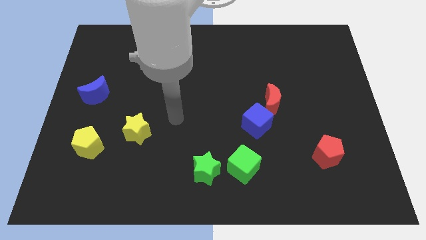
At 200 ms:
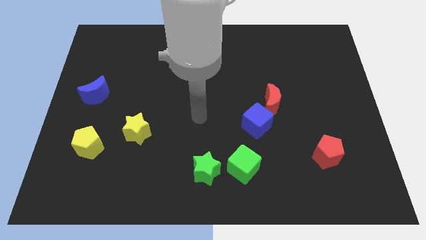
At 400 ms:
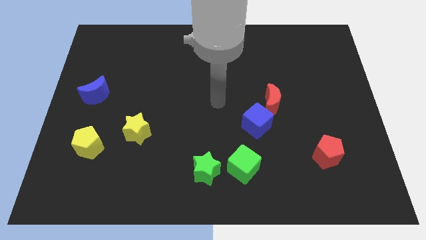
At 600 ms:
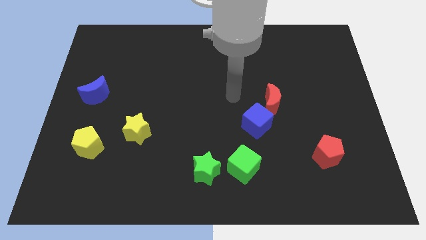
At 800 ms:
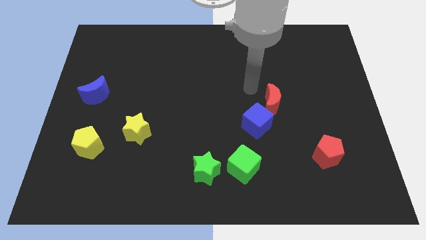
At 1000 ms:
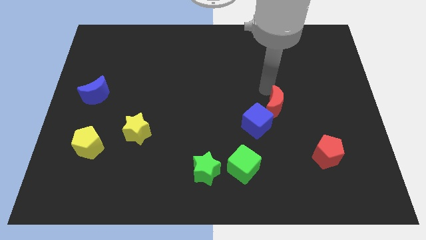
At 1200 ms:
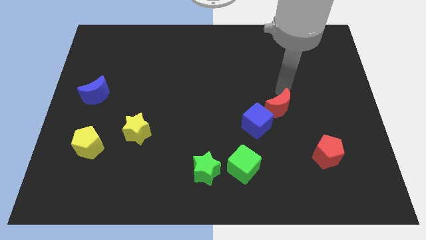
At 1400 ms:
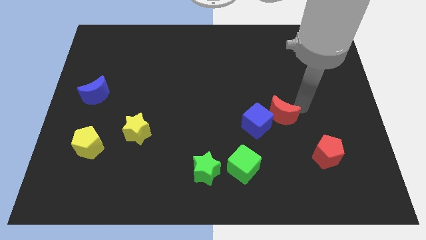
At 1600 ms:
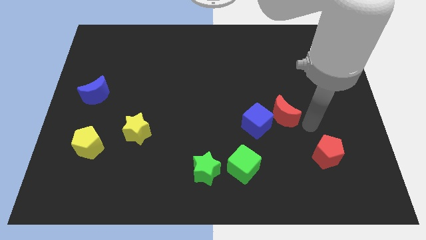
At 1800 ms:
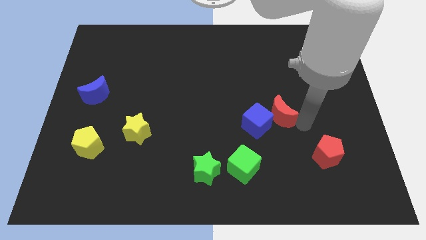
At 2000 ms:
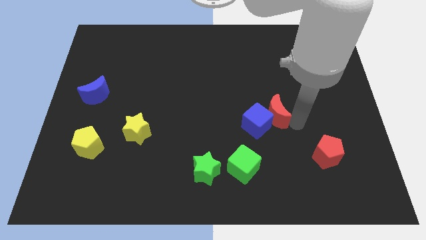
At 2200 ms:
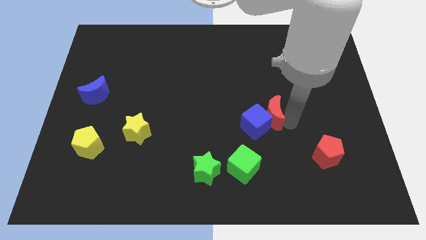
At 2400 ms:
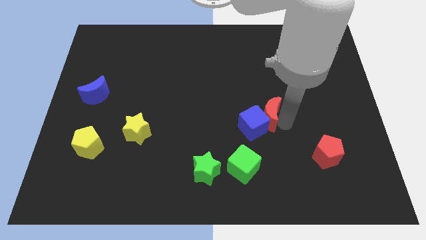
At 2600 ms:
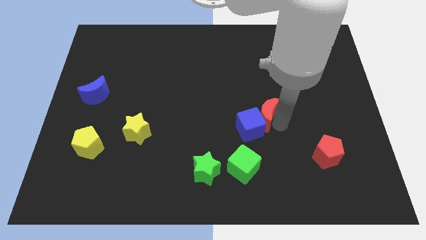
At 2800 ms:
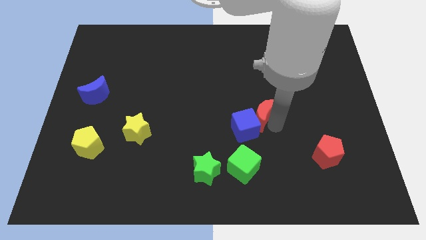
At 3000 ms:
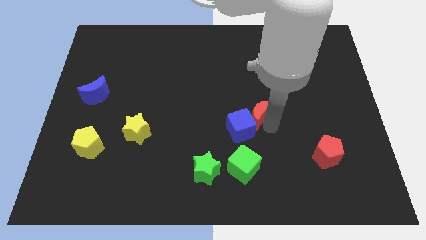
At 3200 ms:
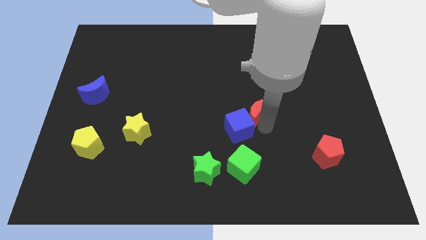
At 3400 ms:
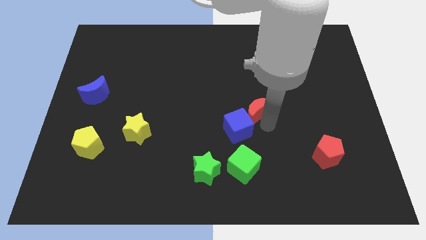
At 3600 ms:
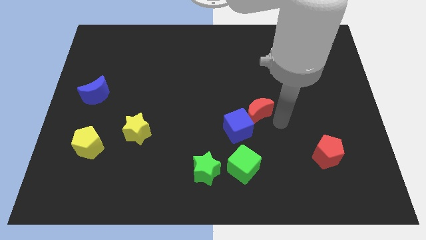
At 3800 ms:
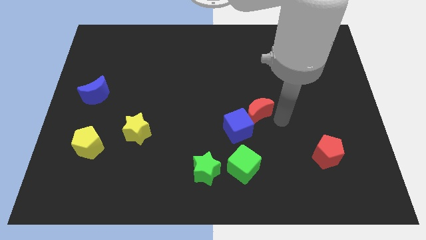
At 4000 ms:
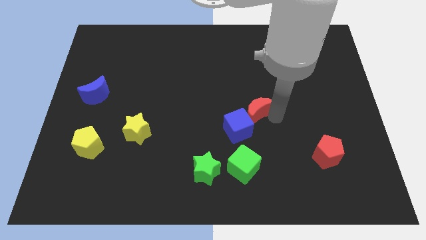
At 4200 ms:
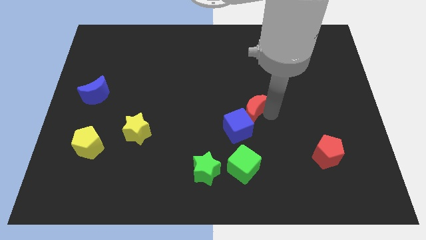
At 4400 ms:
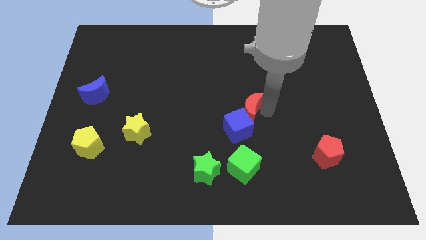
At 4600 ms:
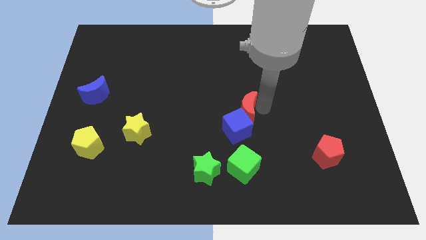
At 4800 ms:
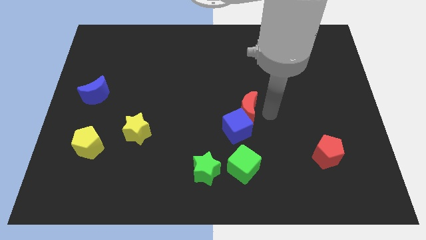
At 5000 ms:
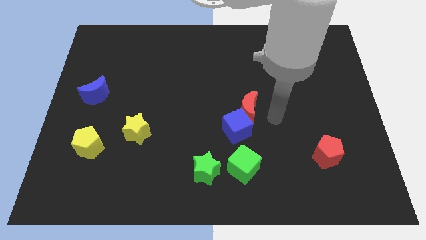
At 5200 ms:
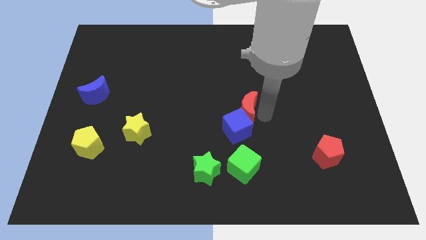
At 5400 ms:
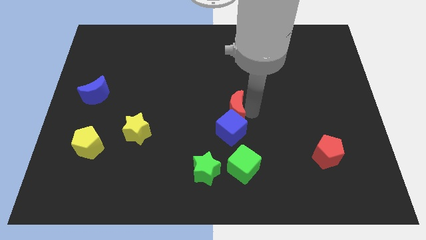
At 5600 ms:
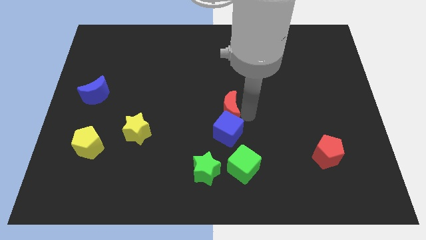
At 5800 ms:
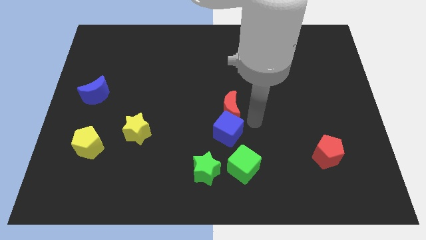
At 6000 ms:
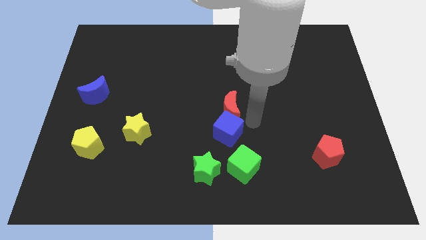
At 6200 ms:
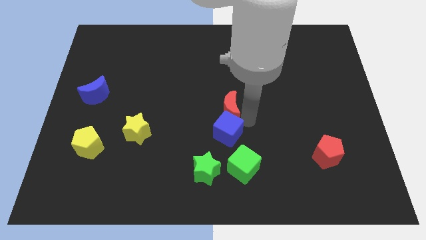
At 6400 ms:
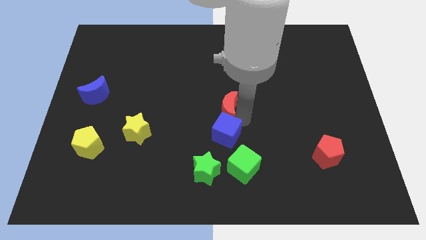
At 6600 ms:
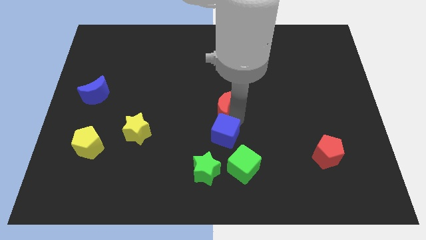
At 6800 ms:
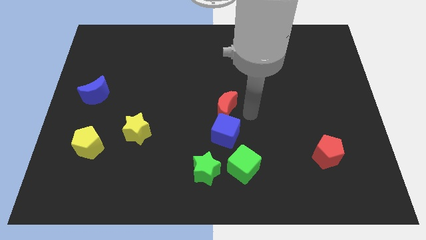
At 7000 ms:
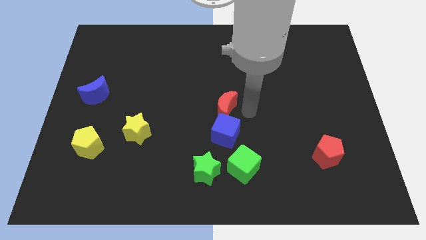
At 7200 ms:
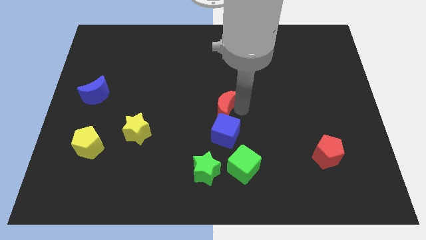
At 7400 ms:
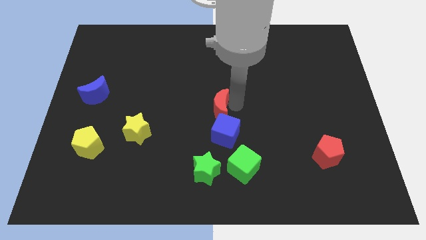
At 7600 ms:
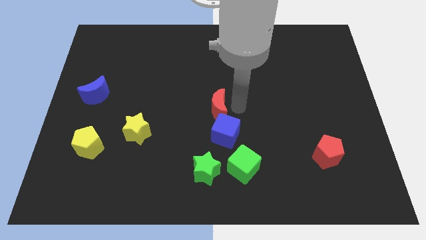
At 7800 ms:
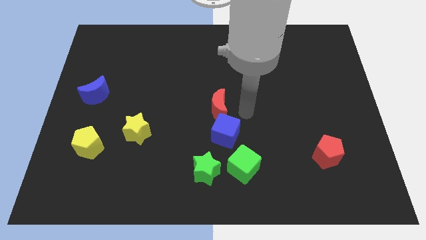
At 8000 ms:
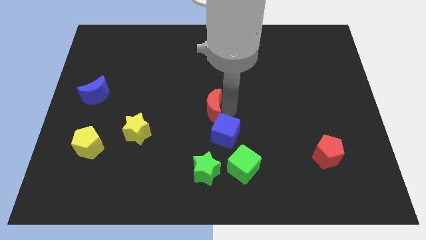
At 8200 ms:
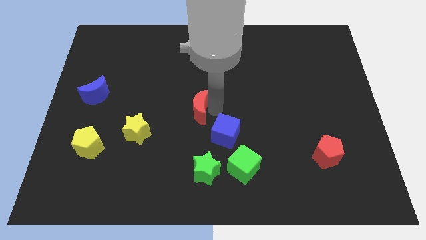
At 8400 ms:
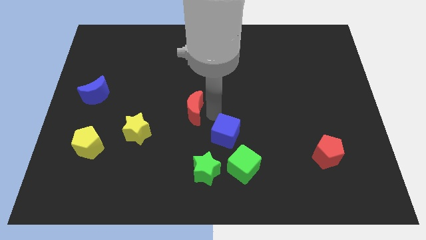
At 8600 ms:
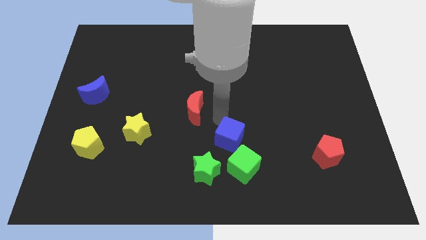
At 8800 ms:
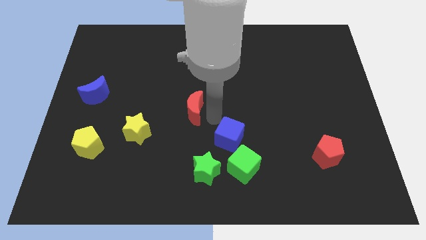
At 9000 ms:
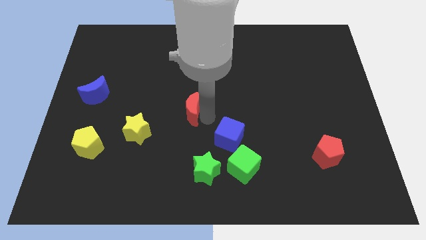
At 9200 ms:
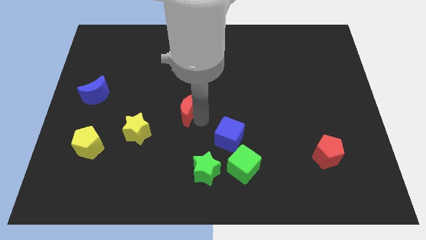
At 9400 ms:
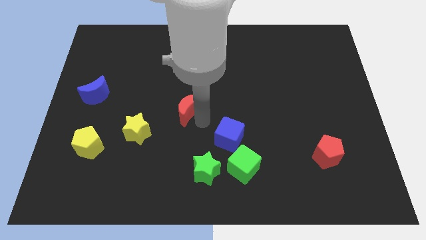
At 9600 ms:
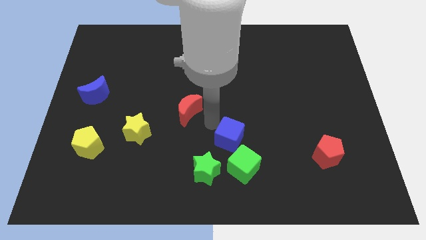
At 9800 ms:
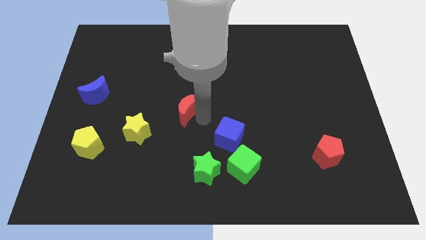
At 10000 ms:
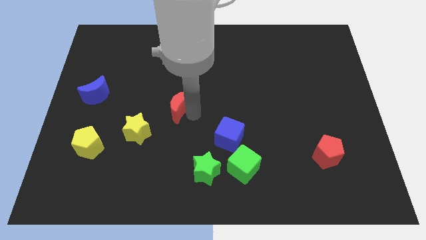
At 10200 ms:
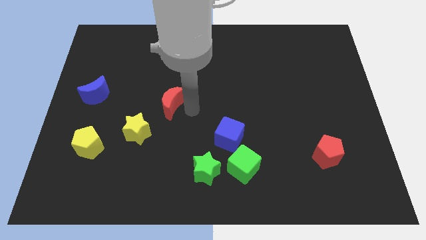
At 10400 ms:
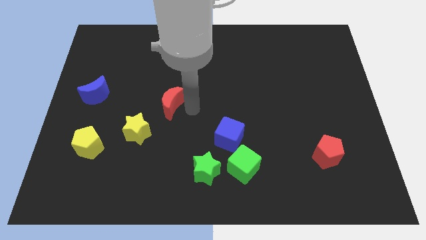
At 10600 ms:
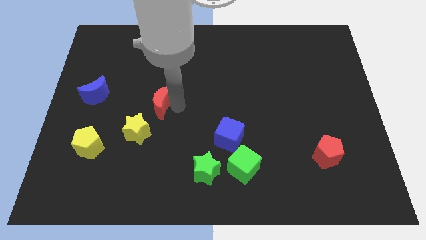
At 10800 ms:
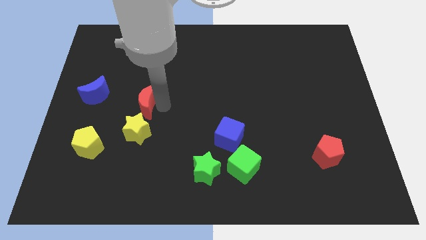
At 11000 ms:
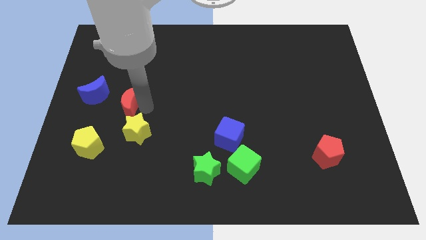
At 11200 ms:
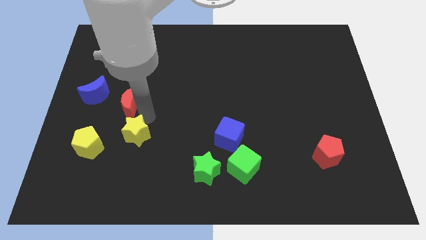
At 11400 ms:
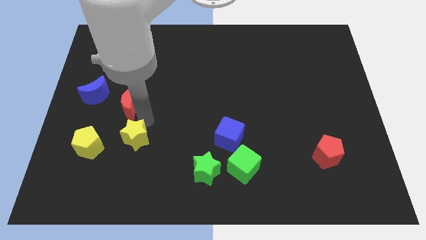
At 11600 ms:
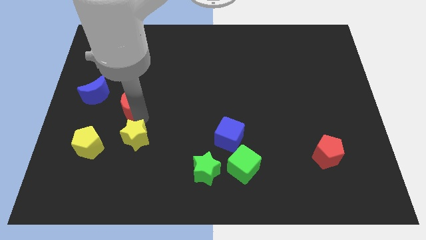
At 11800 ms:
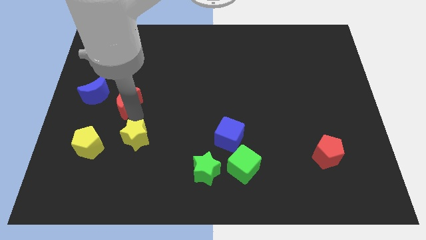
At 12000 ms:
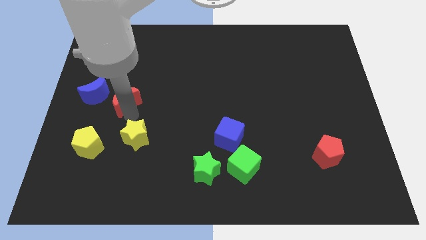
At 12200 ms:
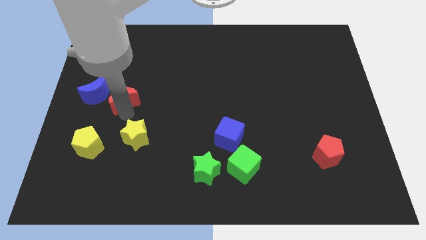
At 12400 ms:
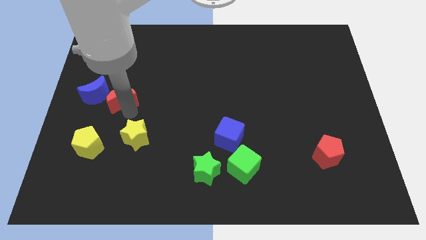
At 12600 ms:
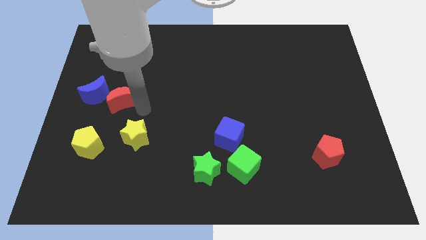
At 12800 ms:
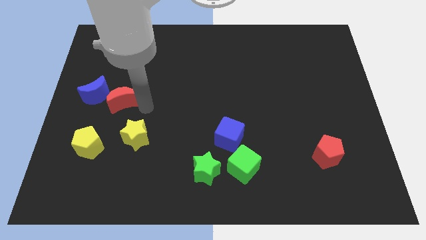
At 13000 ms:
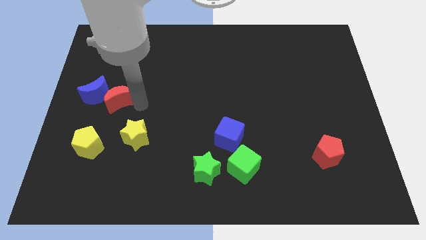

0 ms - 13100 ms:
move the red moon next to the blue moon
